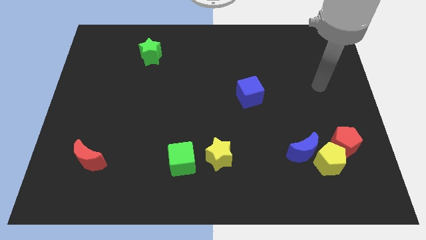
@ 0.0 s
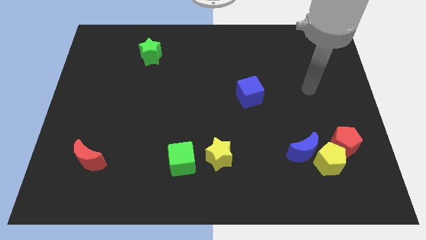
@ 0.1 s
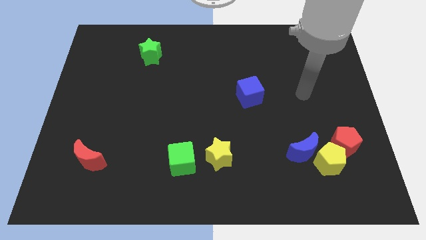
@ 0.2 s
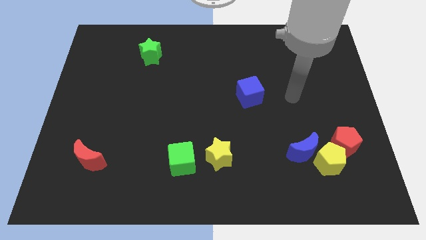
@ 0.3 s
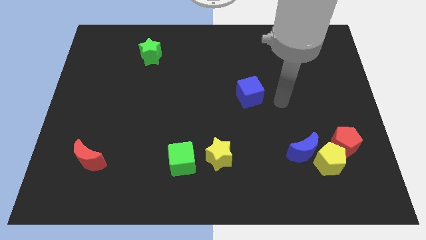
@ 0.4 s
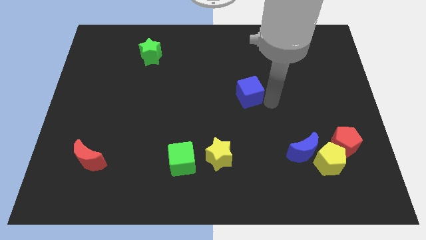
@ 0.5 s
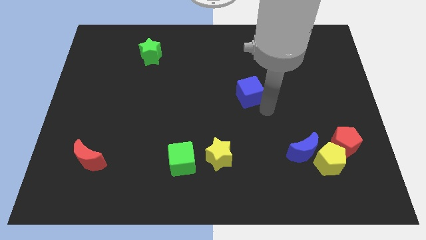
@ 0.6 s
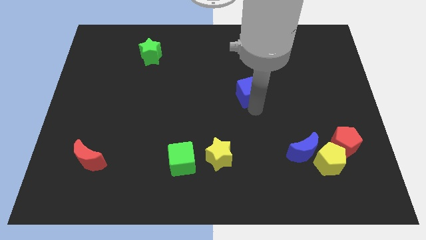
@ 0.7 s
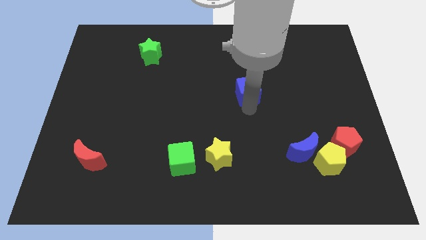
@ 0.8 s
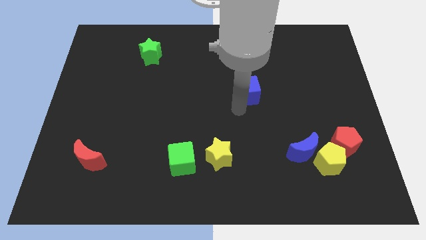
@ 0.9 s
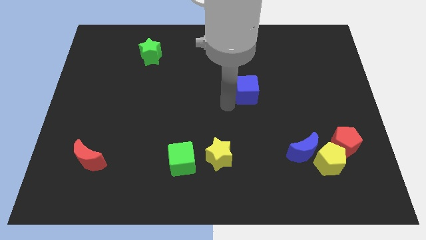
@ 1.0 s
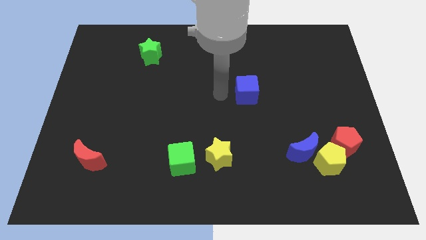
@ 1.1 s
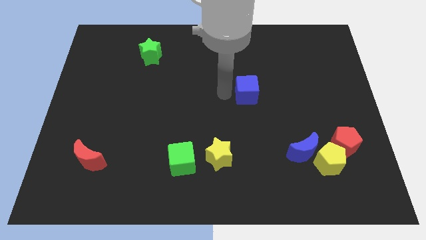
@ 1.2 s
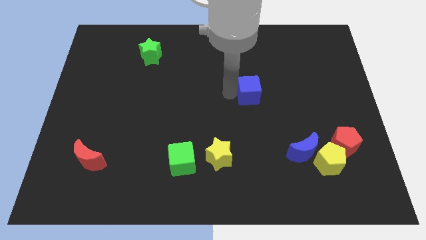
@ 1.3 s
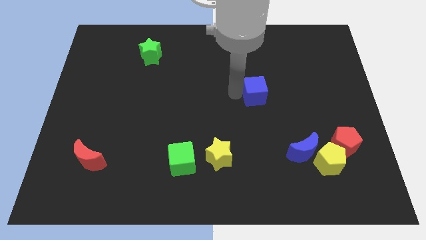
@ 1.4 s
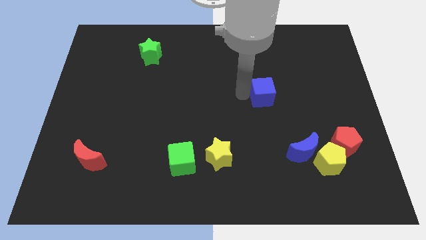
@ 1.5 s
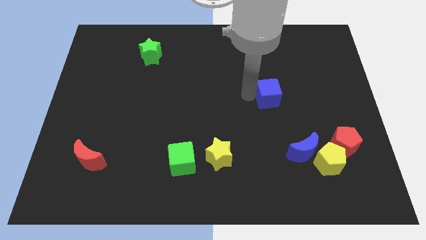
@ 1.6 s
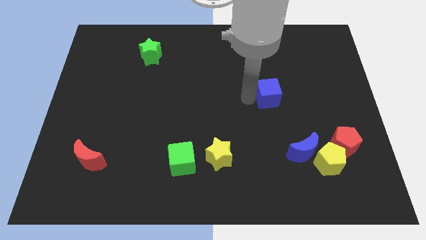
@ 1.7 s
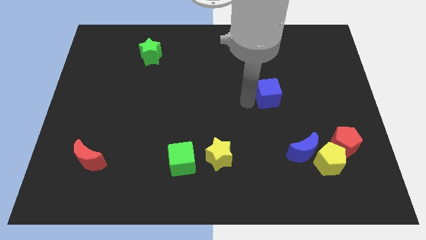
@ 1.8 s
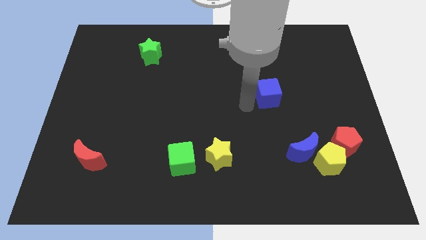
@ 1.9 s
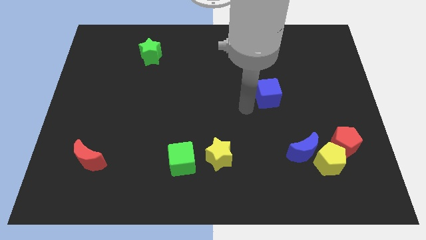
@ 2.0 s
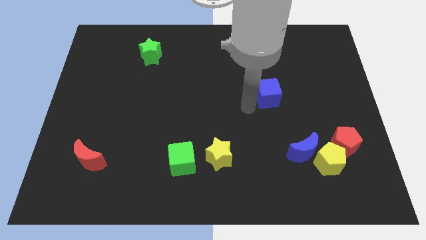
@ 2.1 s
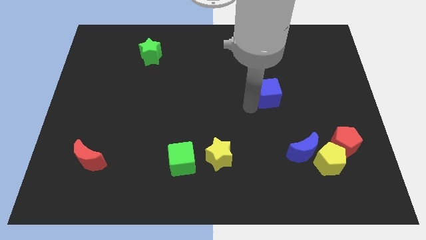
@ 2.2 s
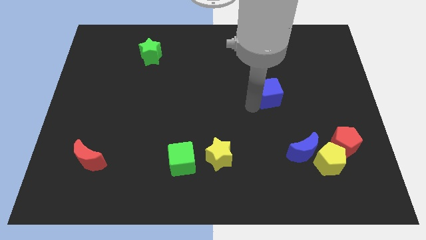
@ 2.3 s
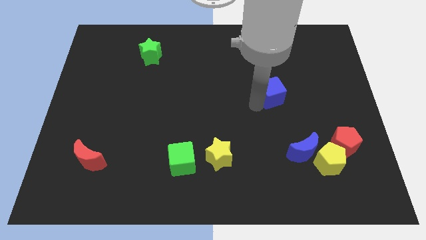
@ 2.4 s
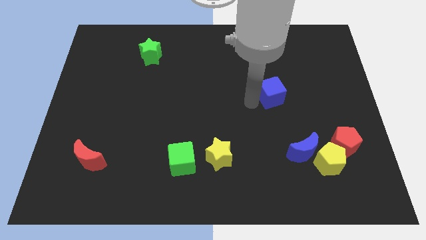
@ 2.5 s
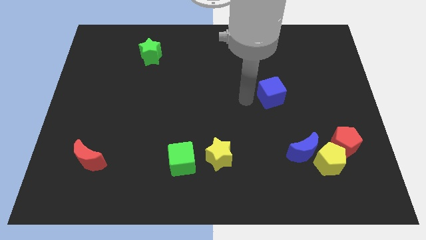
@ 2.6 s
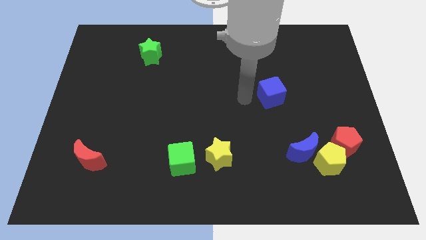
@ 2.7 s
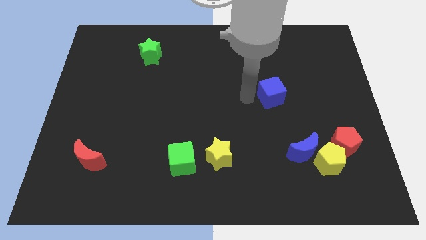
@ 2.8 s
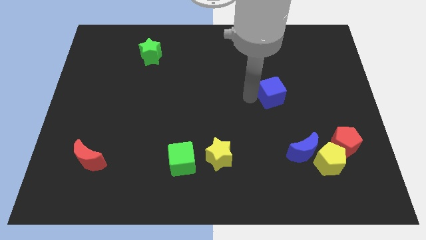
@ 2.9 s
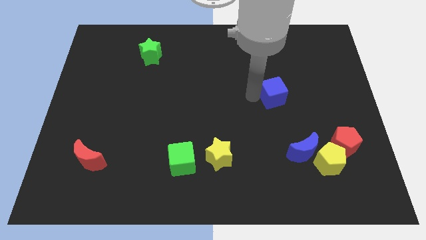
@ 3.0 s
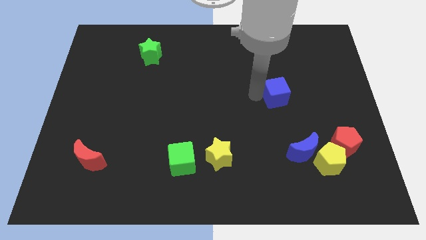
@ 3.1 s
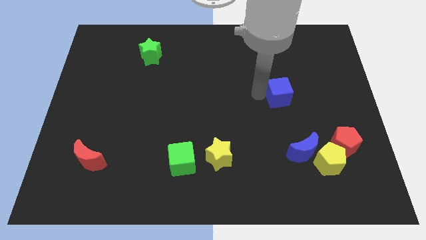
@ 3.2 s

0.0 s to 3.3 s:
slightly move the blue cube right

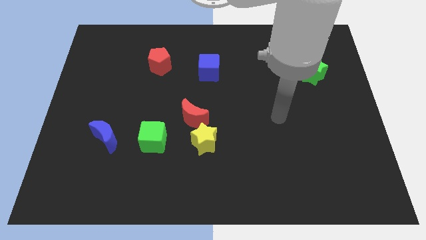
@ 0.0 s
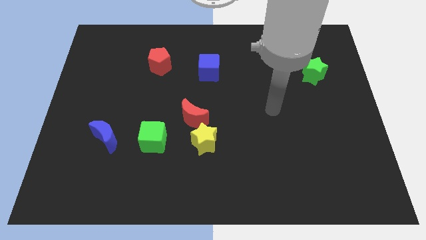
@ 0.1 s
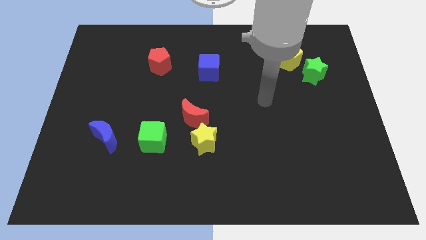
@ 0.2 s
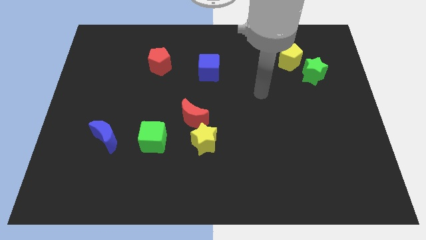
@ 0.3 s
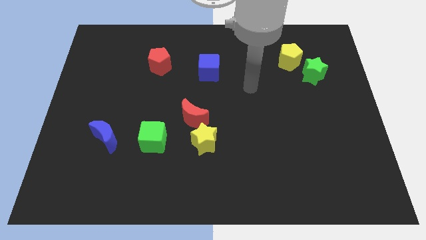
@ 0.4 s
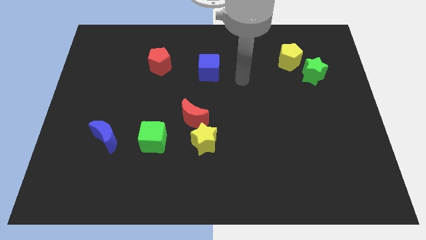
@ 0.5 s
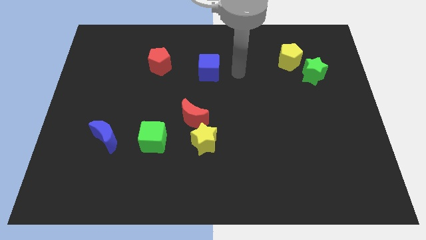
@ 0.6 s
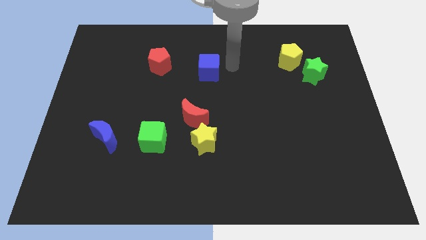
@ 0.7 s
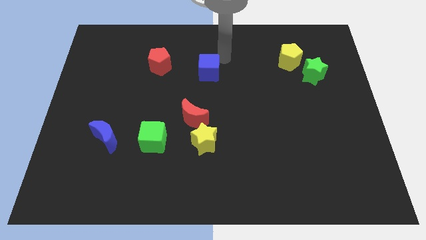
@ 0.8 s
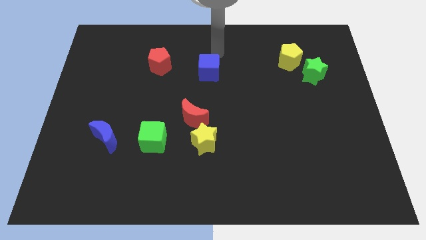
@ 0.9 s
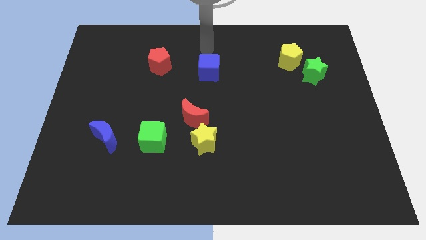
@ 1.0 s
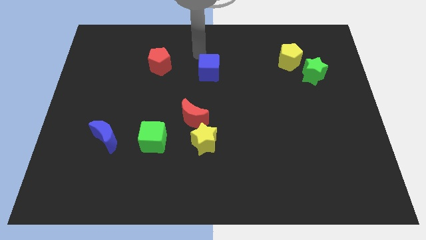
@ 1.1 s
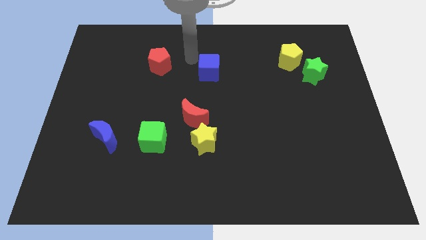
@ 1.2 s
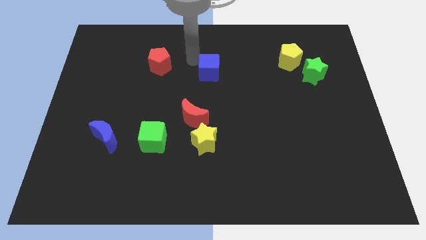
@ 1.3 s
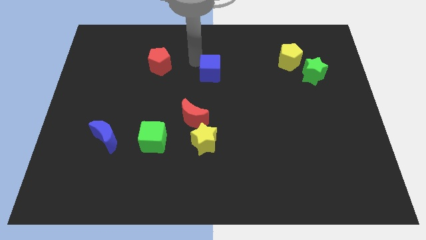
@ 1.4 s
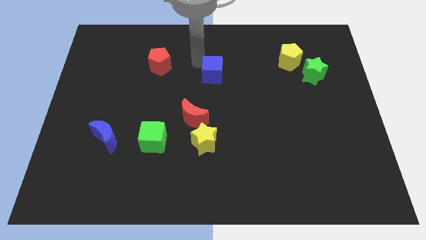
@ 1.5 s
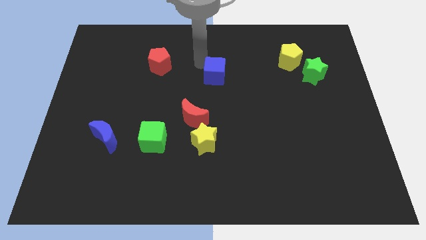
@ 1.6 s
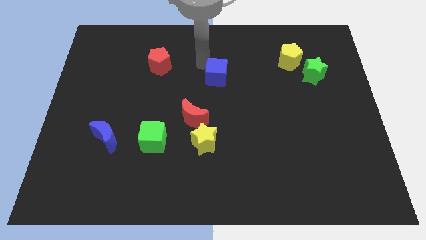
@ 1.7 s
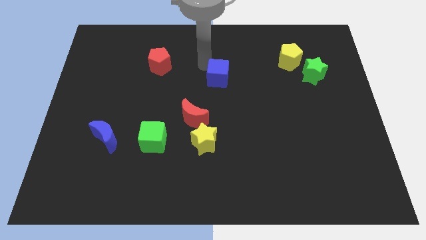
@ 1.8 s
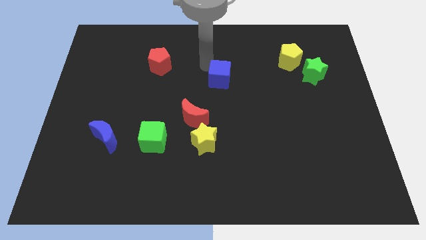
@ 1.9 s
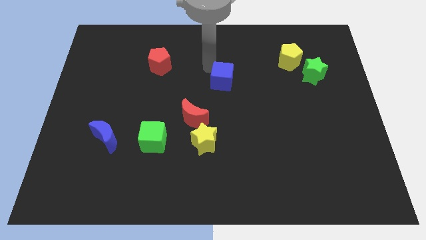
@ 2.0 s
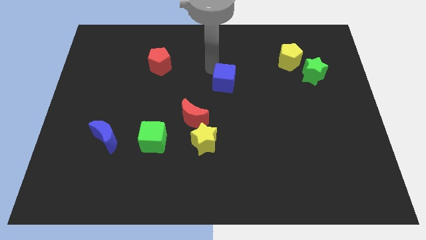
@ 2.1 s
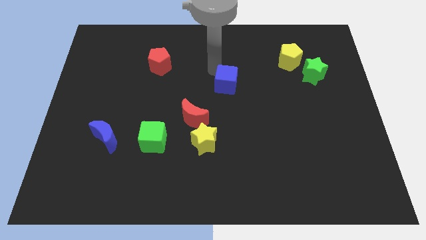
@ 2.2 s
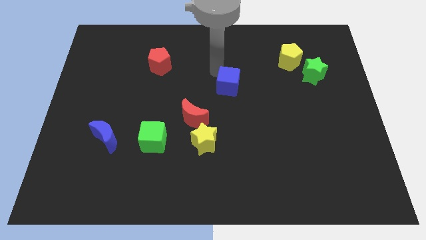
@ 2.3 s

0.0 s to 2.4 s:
move the blue cube down and right a bit

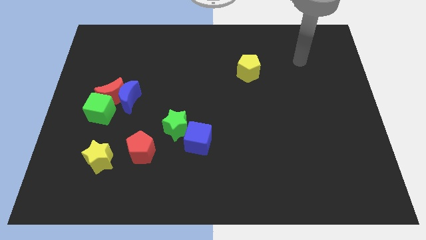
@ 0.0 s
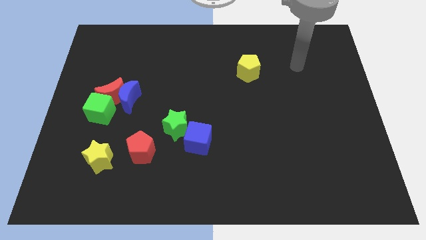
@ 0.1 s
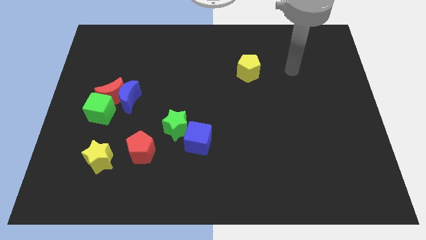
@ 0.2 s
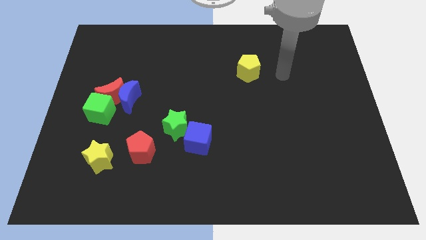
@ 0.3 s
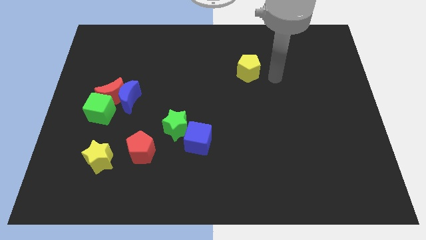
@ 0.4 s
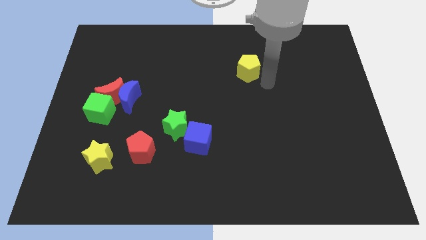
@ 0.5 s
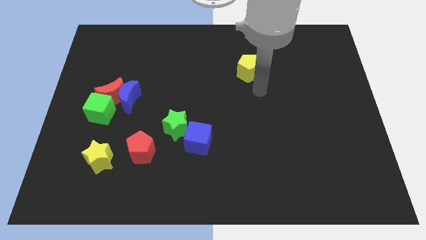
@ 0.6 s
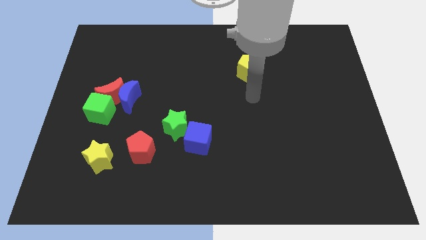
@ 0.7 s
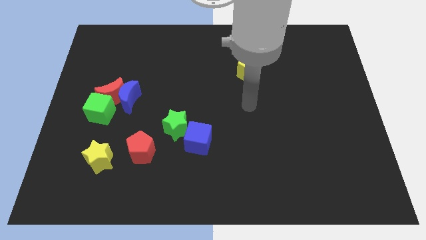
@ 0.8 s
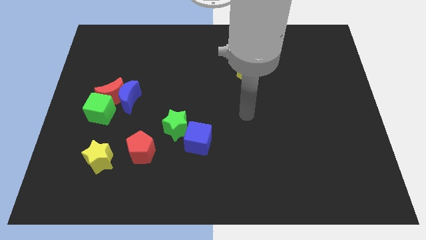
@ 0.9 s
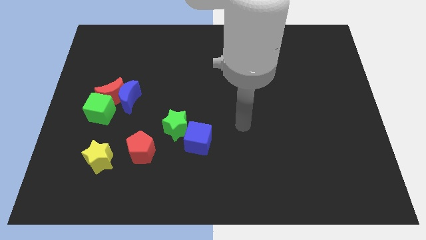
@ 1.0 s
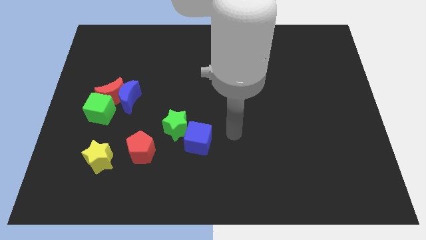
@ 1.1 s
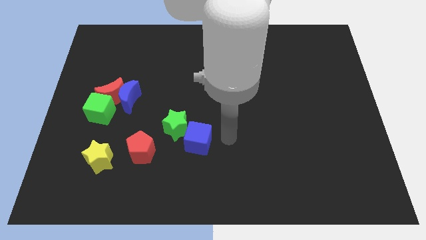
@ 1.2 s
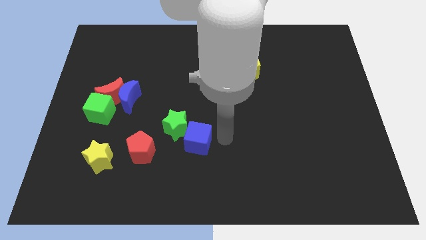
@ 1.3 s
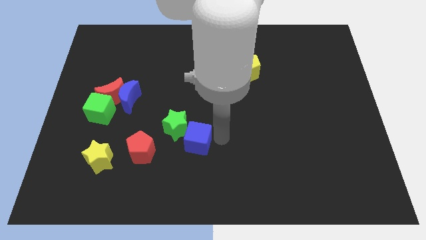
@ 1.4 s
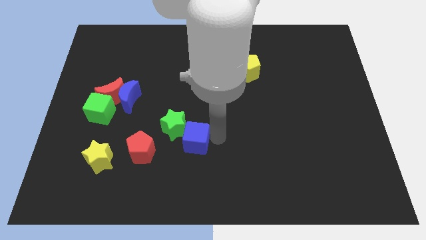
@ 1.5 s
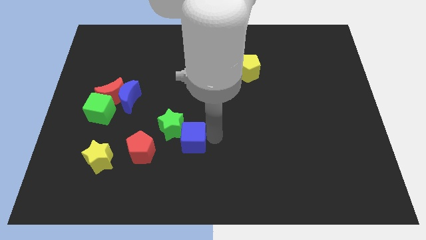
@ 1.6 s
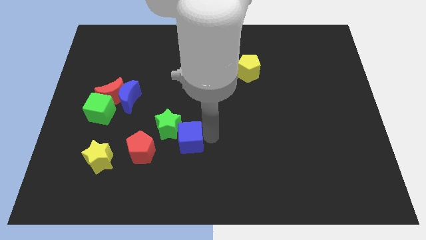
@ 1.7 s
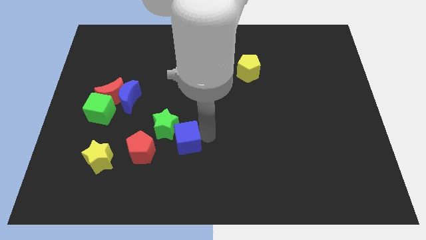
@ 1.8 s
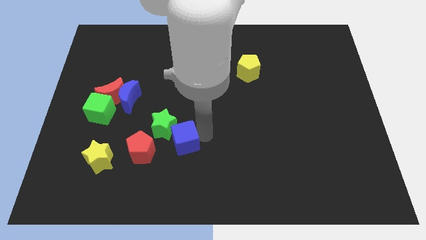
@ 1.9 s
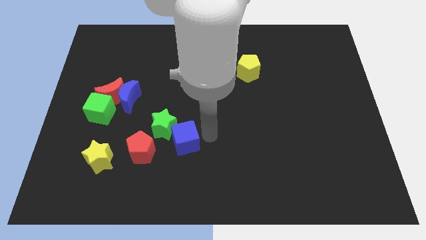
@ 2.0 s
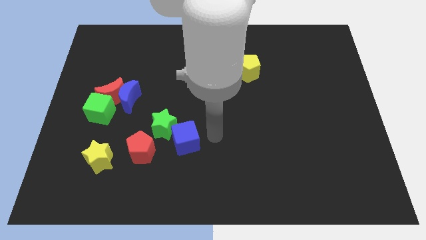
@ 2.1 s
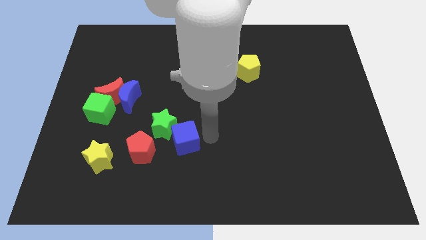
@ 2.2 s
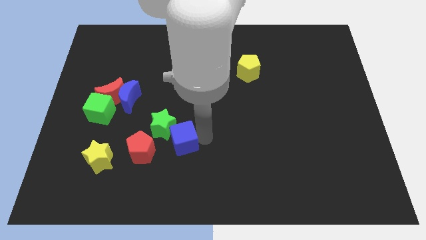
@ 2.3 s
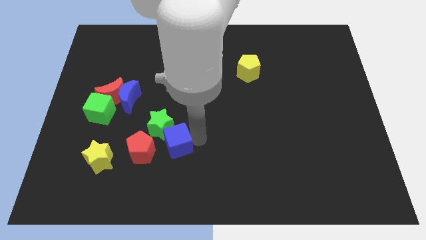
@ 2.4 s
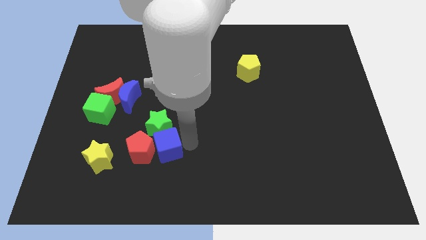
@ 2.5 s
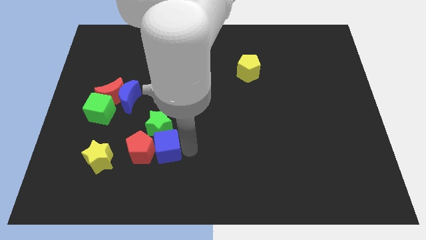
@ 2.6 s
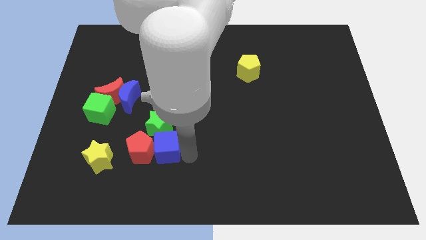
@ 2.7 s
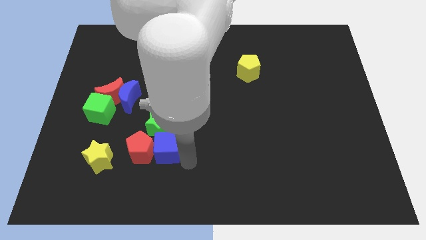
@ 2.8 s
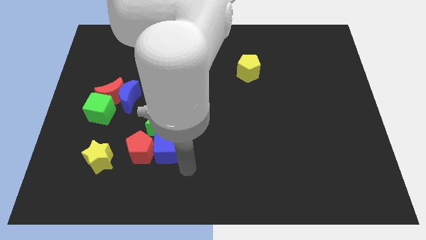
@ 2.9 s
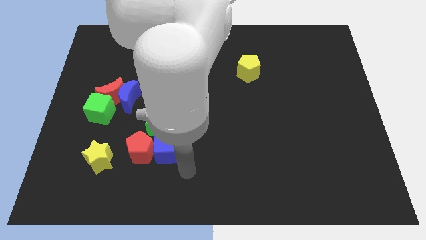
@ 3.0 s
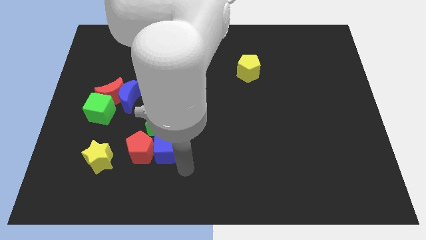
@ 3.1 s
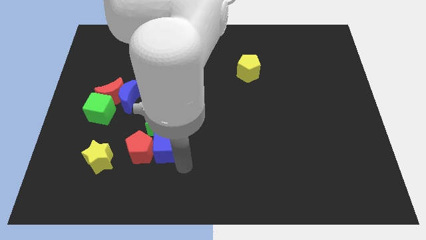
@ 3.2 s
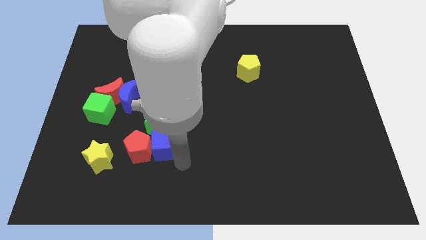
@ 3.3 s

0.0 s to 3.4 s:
slightly push the blue cube left
